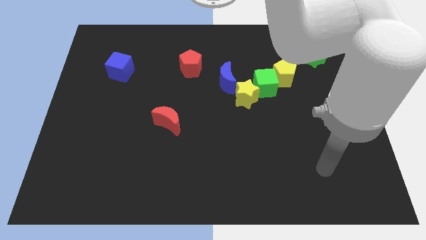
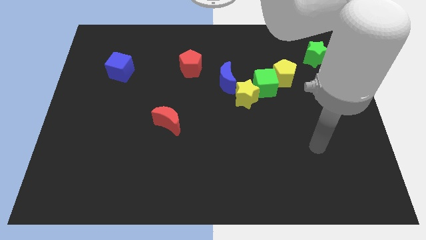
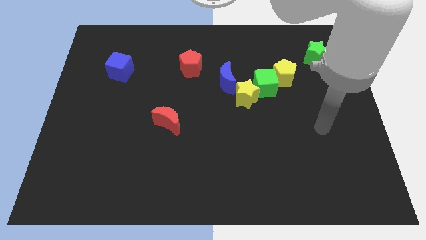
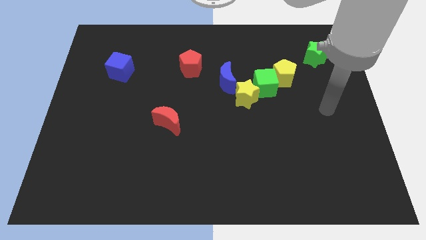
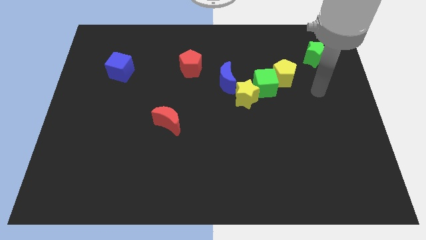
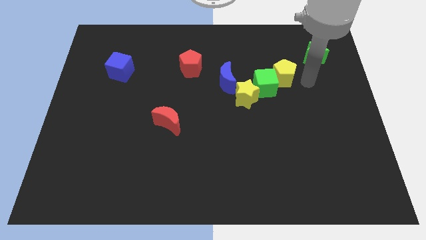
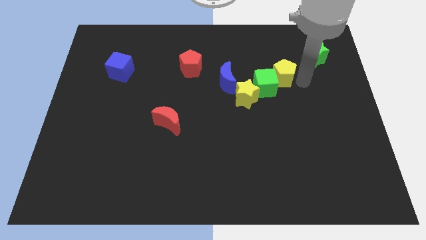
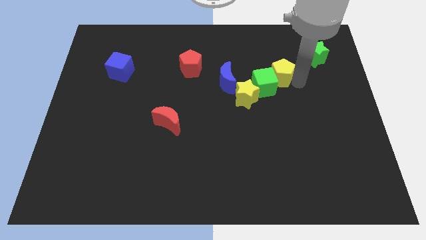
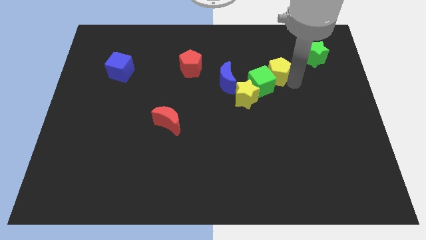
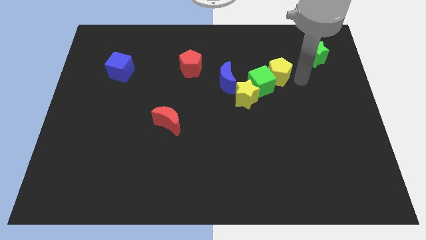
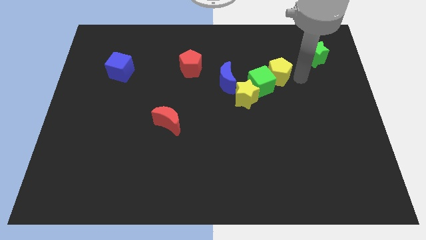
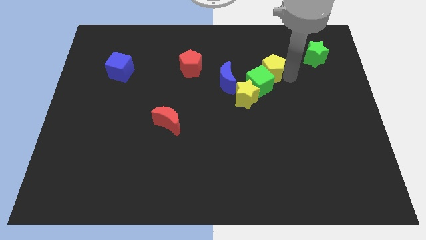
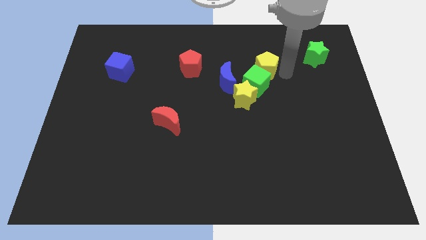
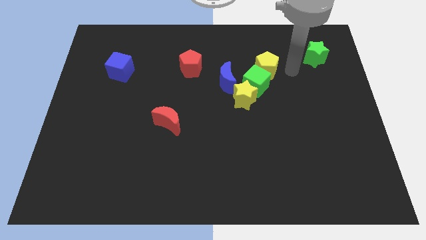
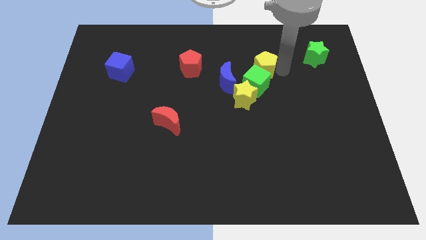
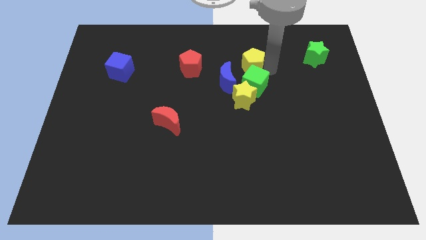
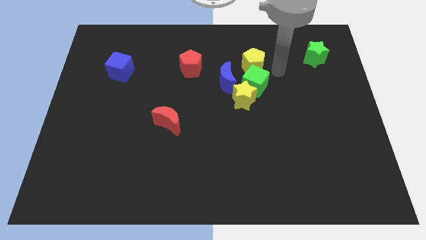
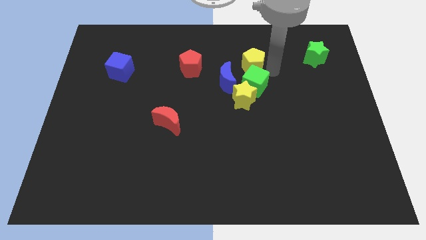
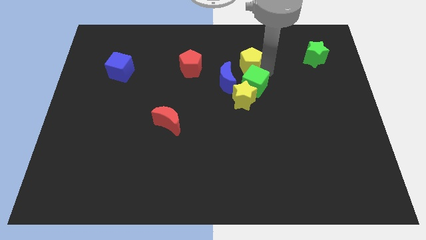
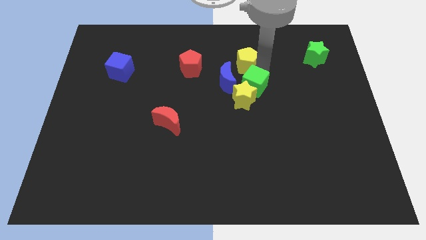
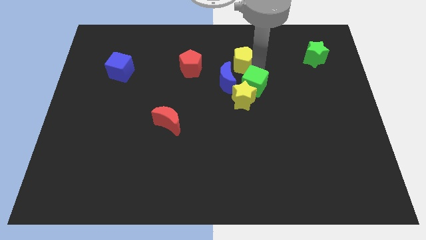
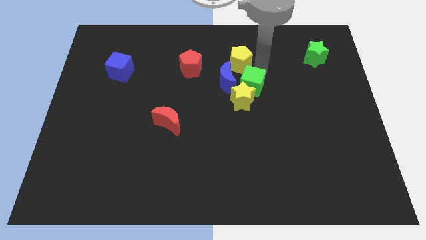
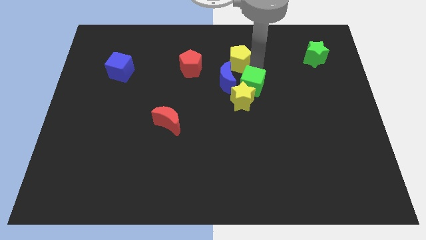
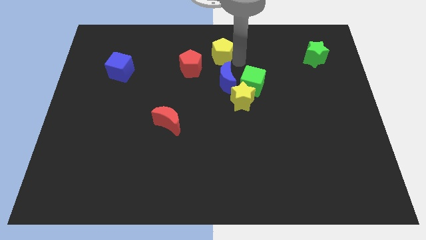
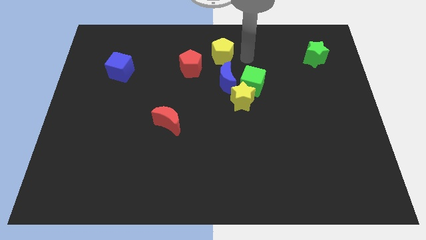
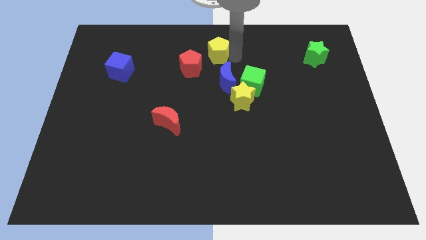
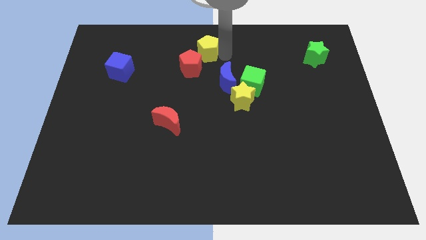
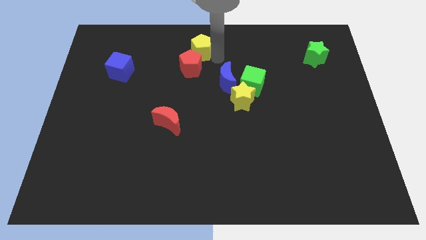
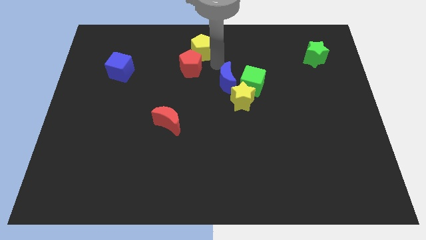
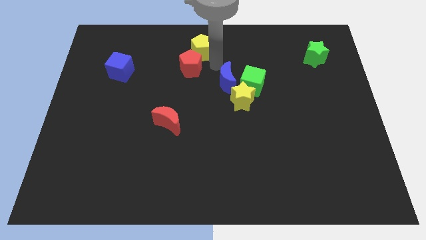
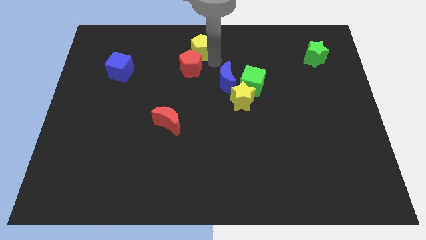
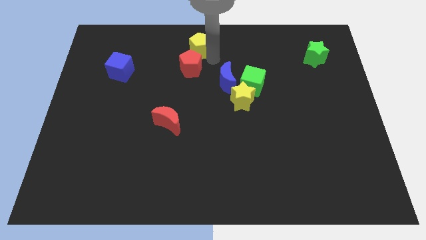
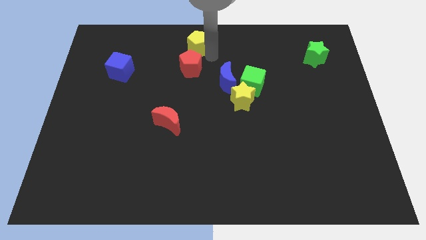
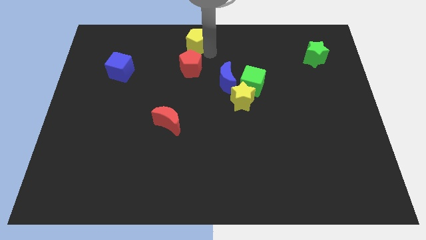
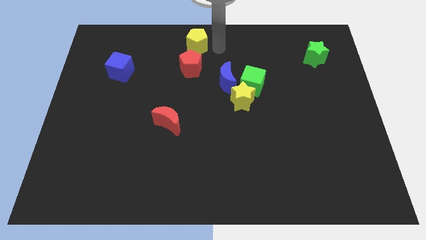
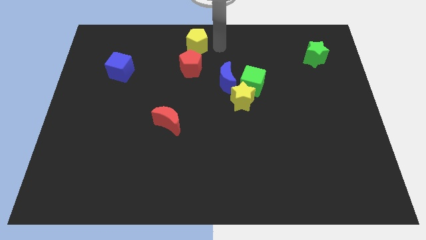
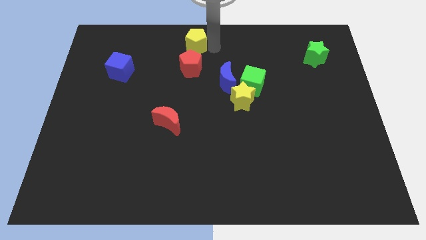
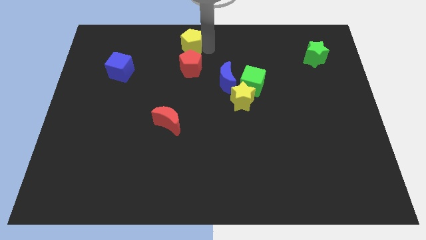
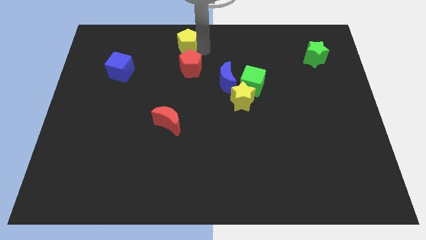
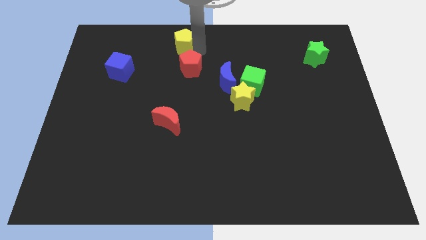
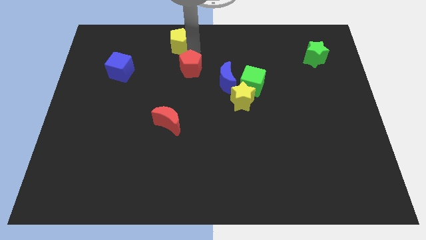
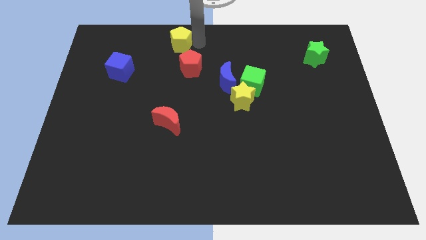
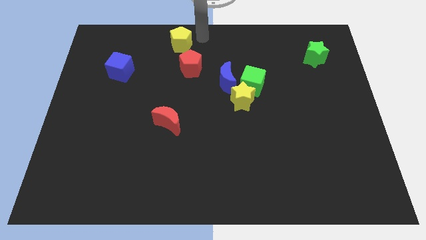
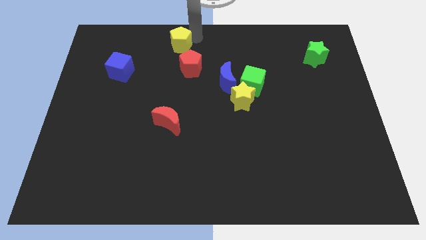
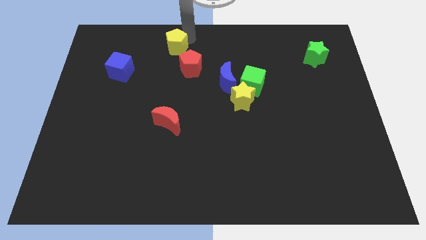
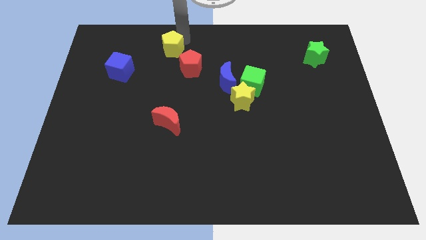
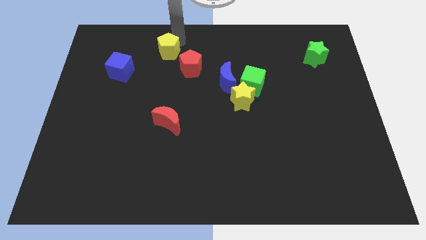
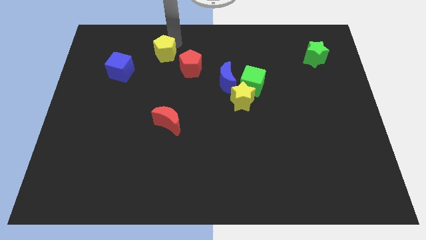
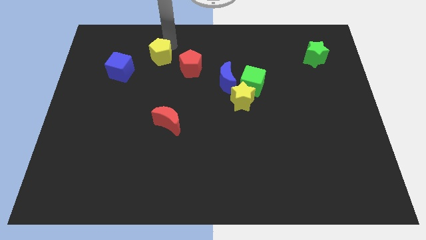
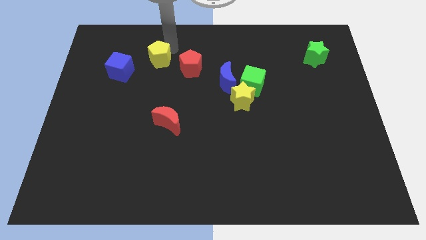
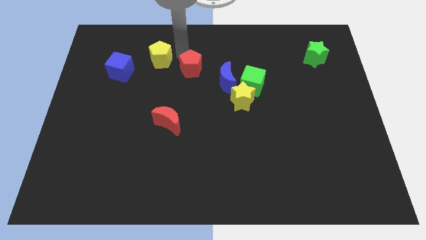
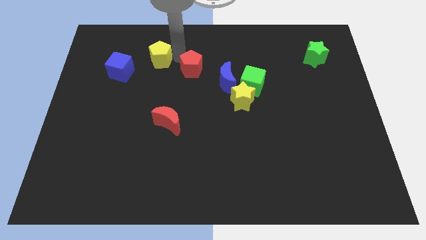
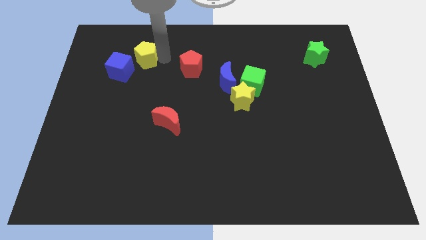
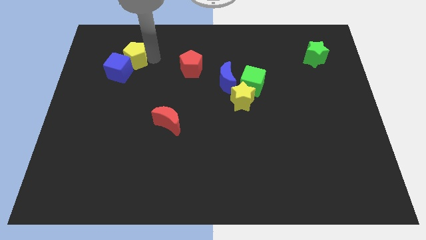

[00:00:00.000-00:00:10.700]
push the yellow pentagon next to the blue cube

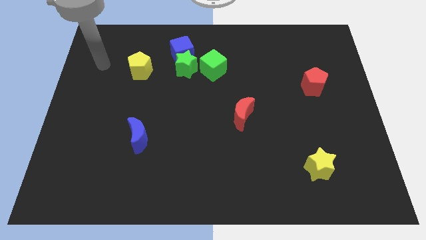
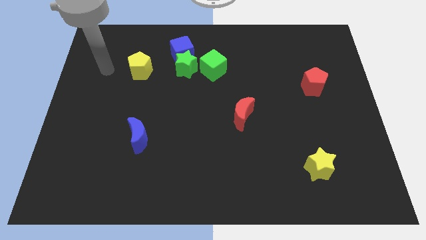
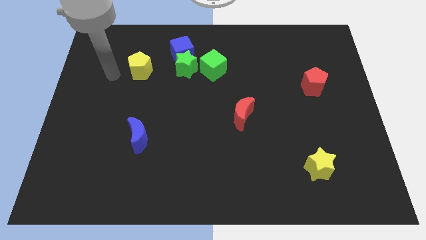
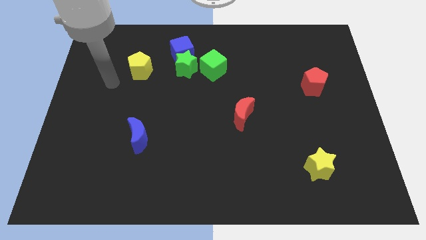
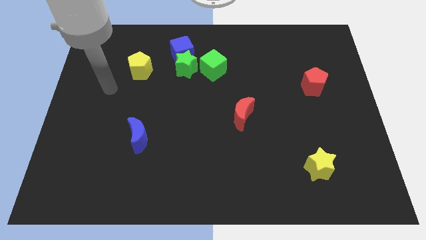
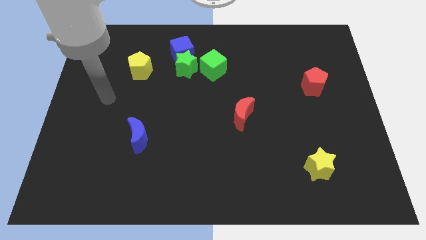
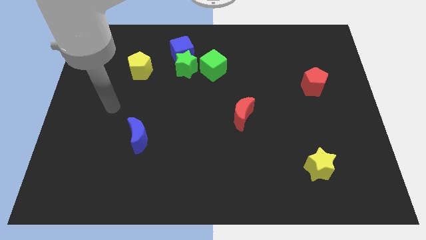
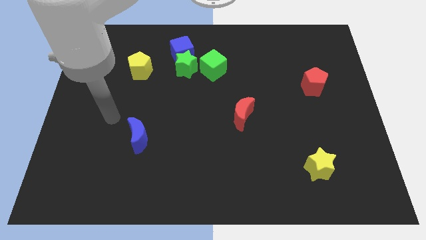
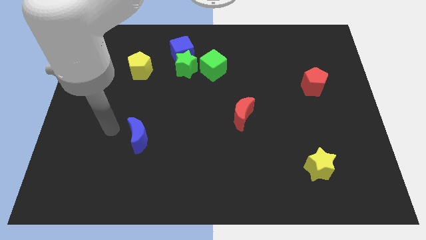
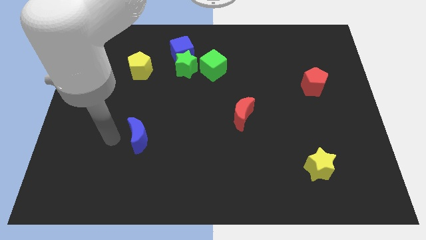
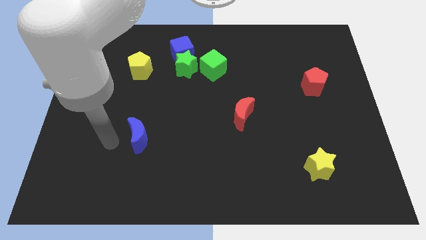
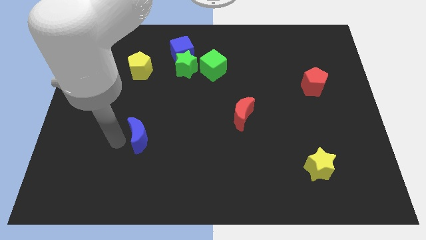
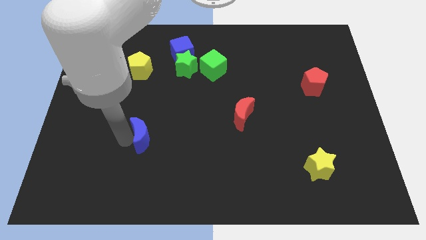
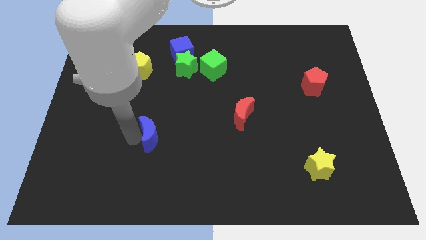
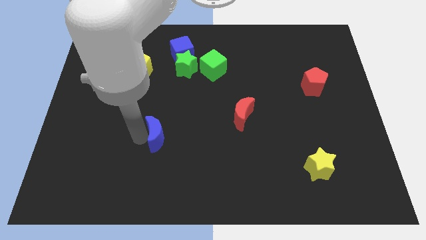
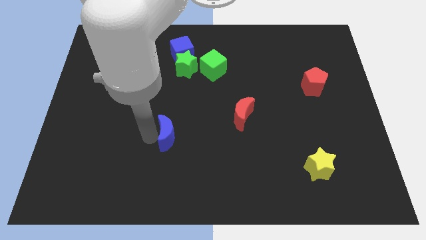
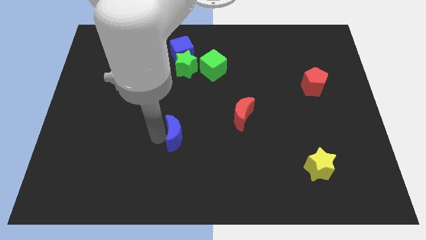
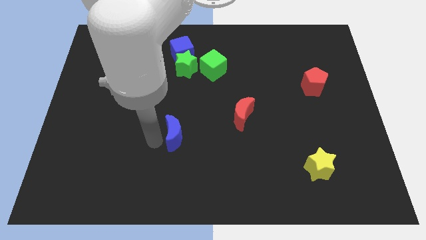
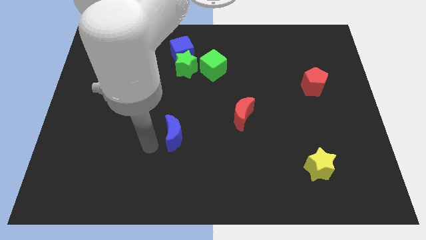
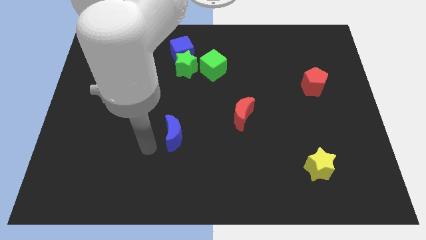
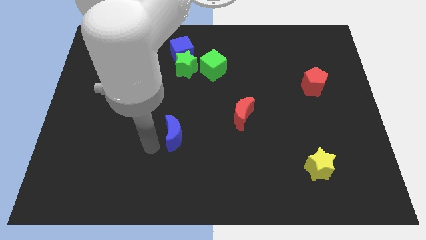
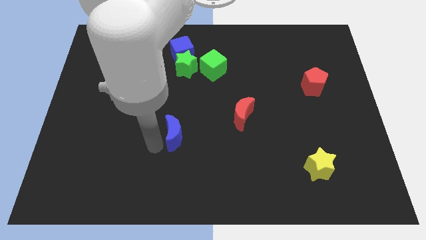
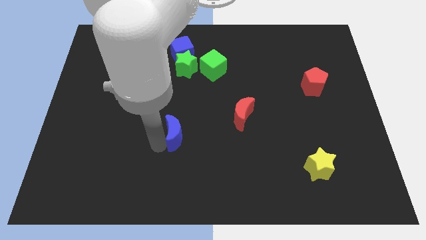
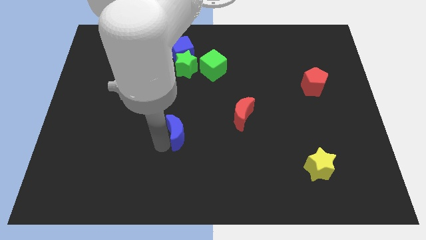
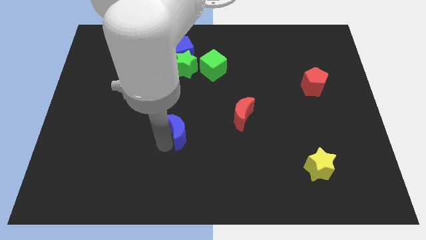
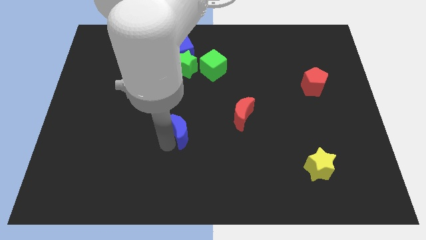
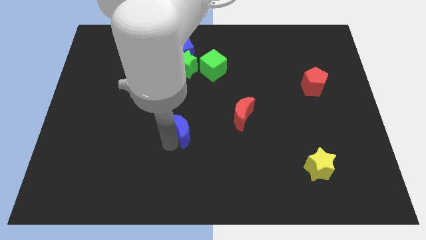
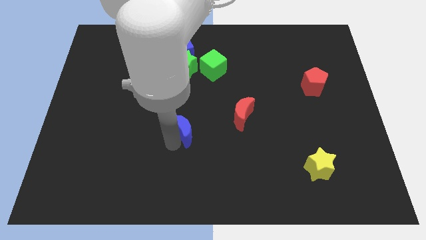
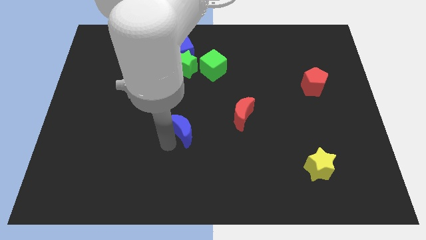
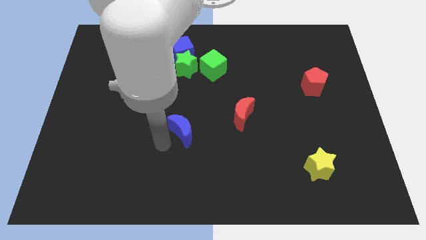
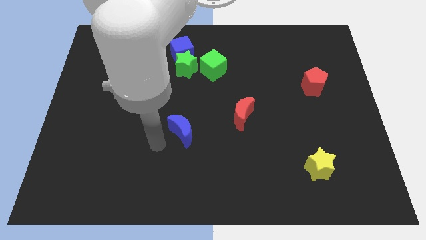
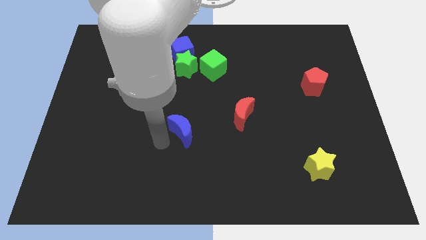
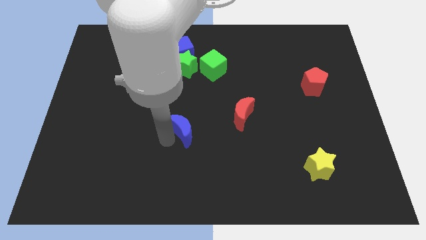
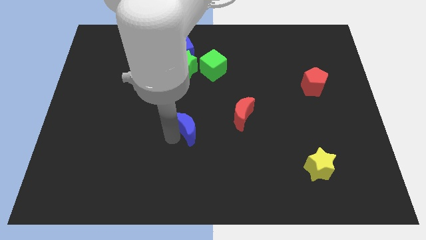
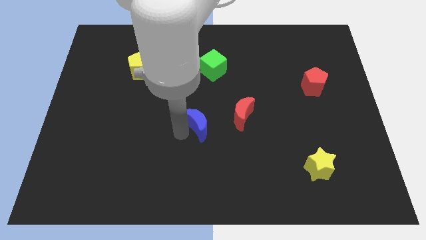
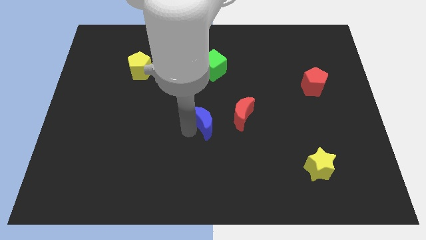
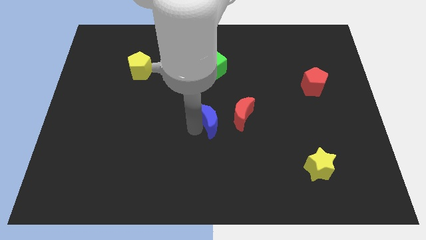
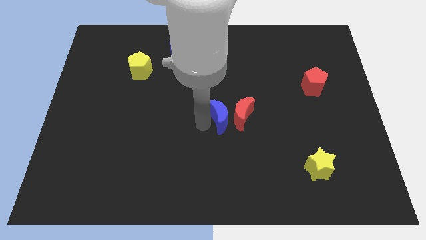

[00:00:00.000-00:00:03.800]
put the blue moon to the red moon
